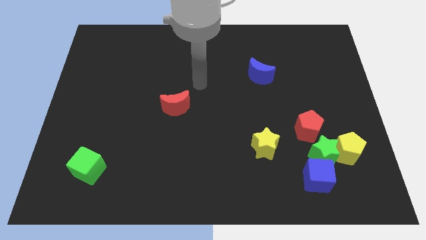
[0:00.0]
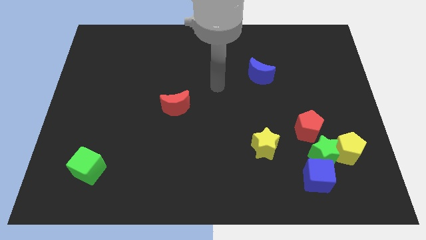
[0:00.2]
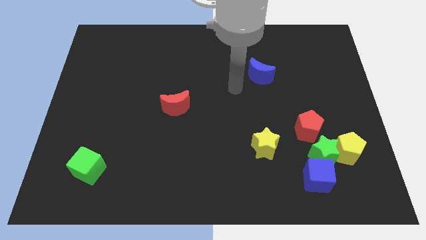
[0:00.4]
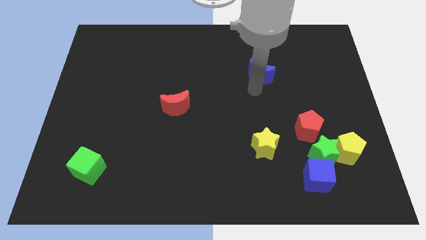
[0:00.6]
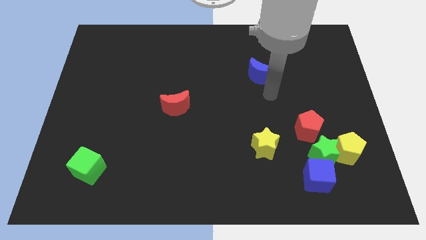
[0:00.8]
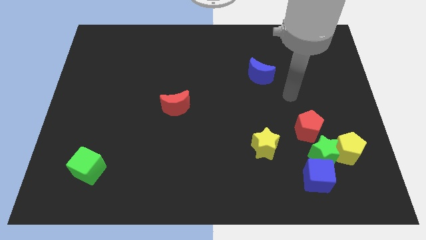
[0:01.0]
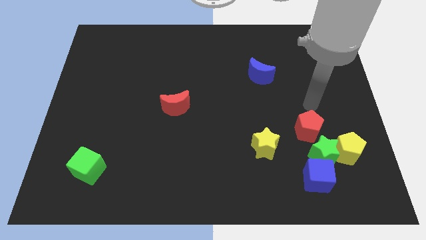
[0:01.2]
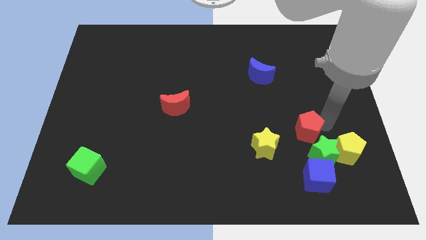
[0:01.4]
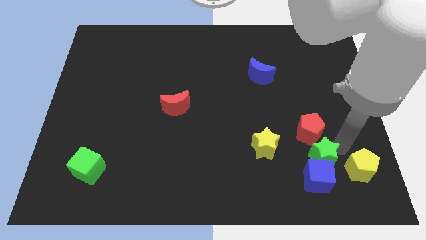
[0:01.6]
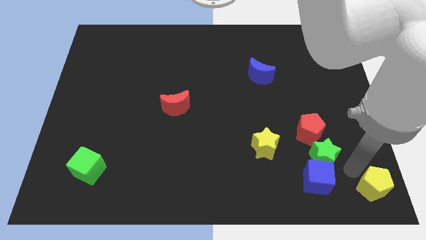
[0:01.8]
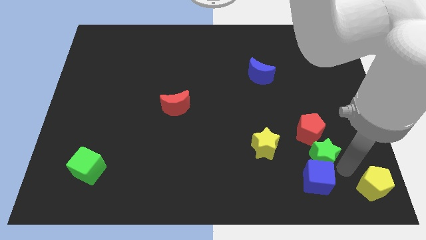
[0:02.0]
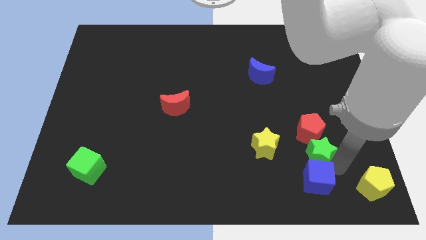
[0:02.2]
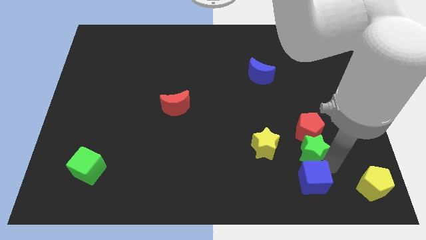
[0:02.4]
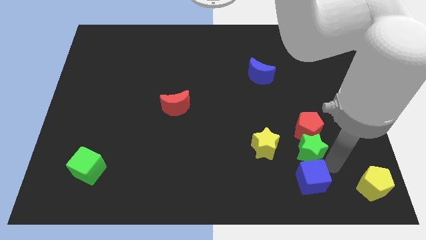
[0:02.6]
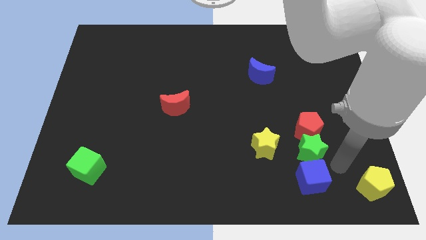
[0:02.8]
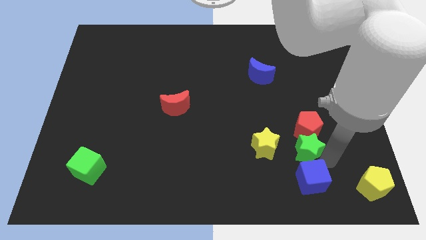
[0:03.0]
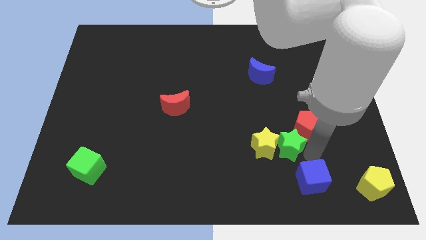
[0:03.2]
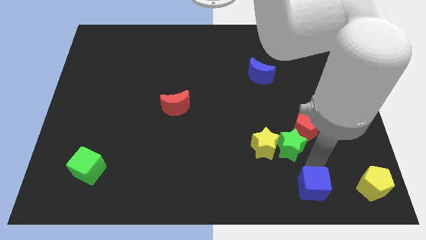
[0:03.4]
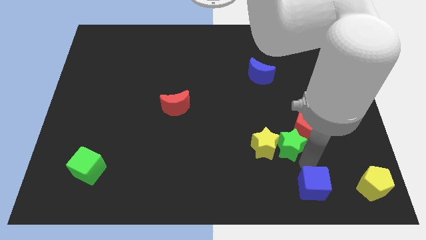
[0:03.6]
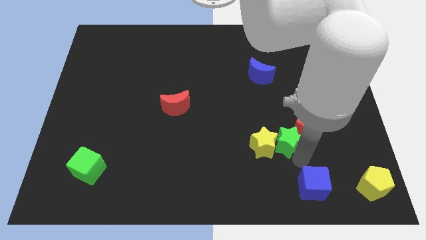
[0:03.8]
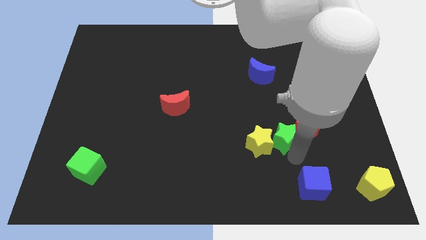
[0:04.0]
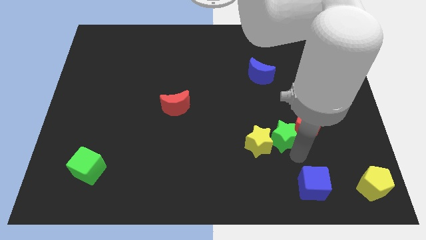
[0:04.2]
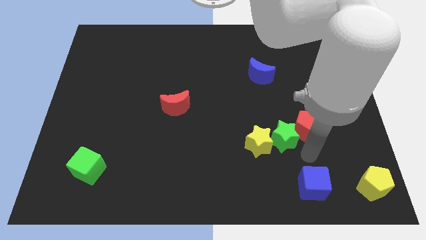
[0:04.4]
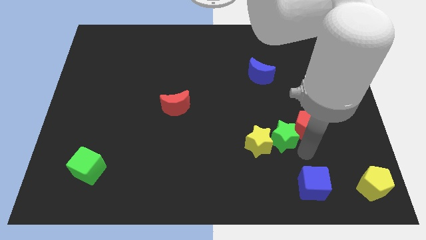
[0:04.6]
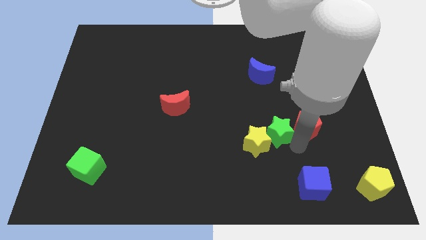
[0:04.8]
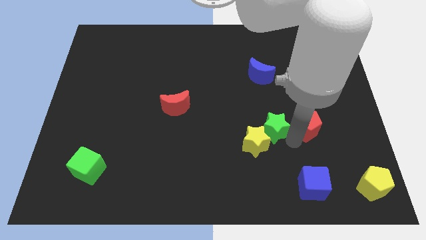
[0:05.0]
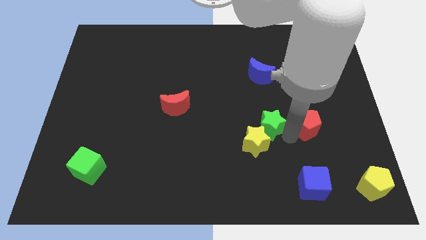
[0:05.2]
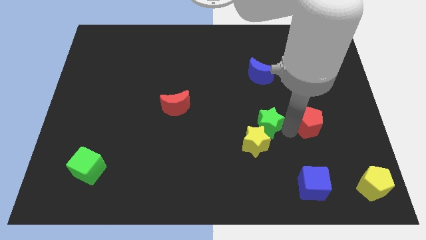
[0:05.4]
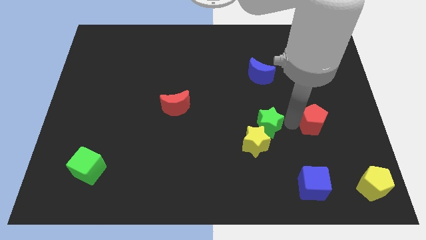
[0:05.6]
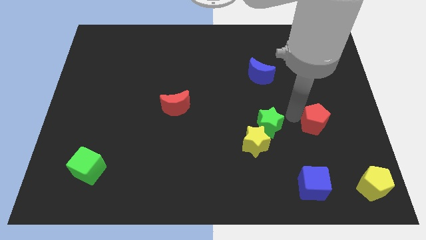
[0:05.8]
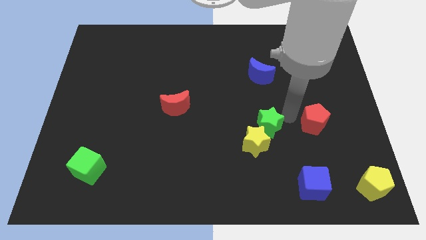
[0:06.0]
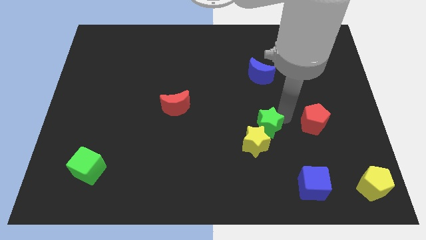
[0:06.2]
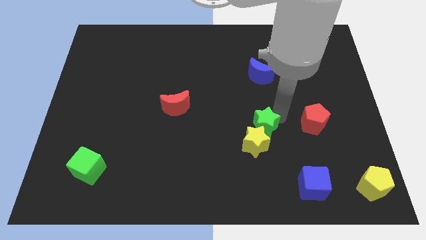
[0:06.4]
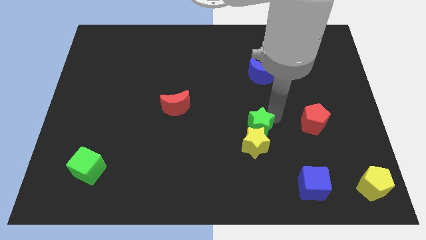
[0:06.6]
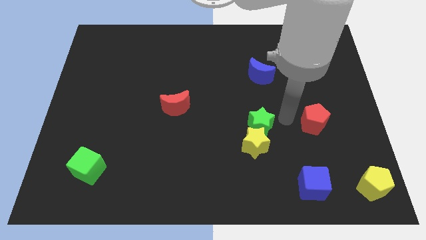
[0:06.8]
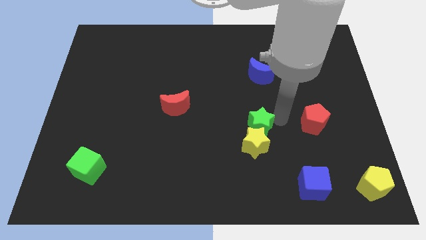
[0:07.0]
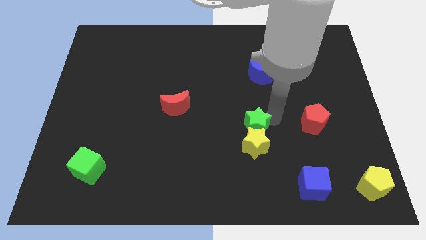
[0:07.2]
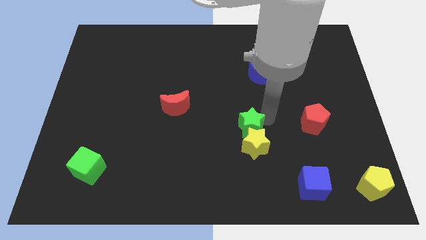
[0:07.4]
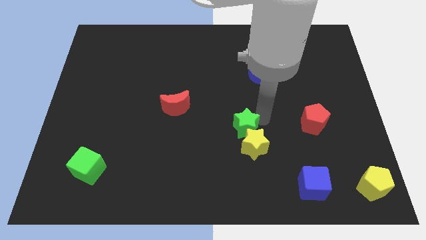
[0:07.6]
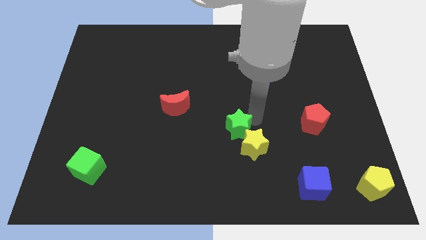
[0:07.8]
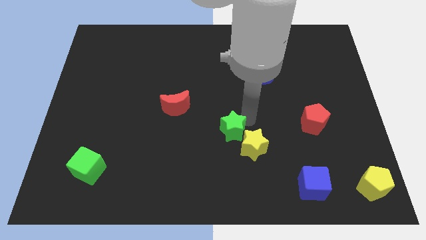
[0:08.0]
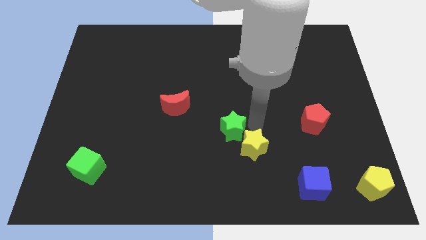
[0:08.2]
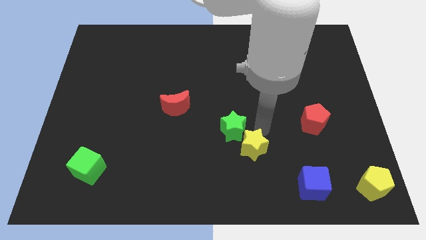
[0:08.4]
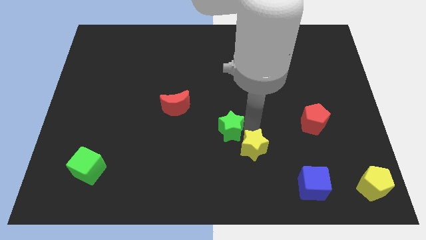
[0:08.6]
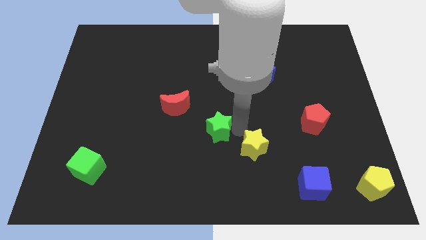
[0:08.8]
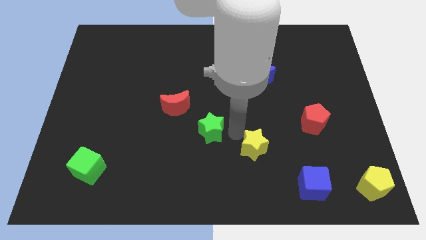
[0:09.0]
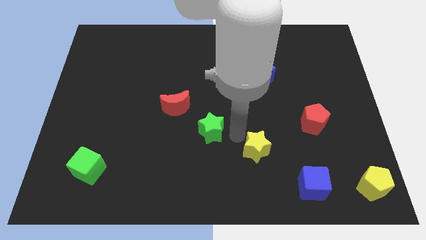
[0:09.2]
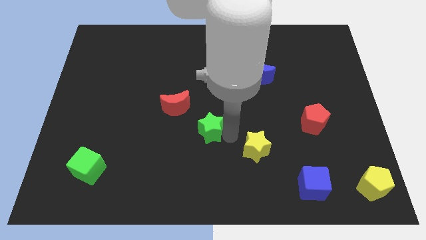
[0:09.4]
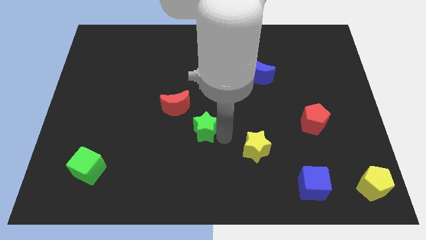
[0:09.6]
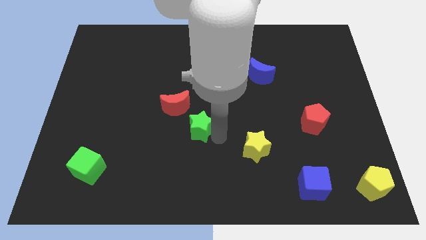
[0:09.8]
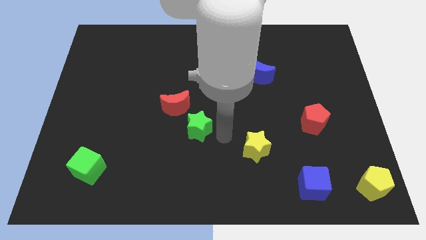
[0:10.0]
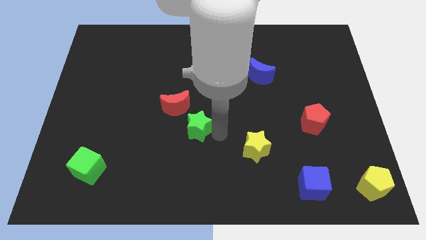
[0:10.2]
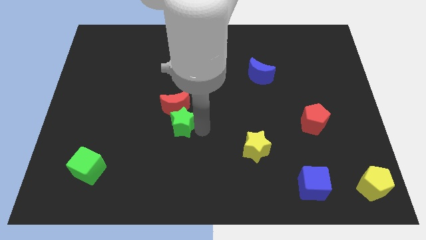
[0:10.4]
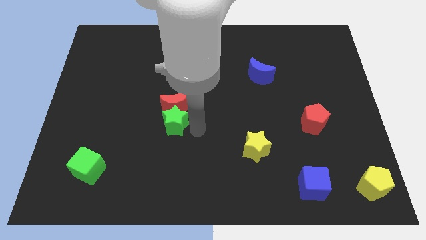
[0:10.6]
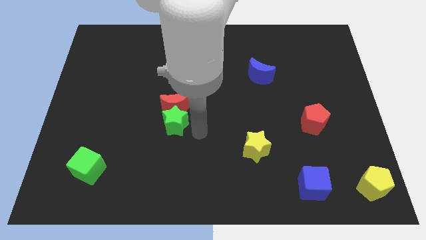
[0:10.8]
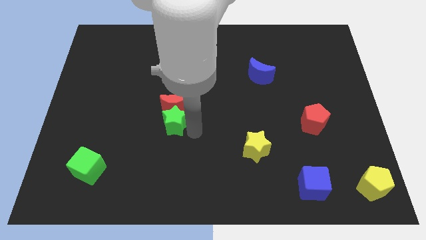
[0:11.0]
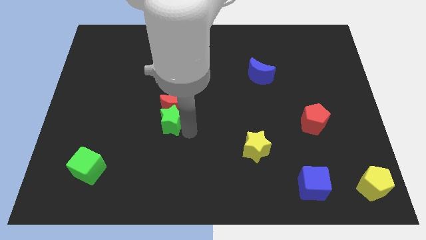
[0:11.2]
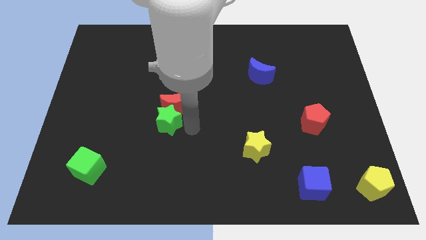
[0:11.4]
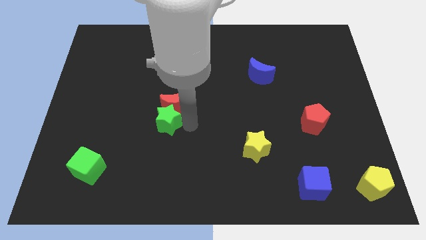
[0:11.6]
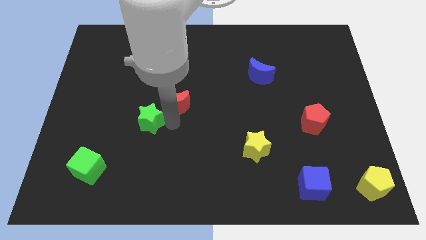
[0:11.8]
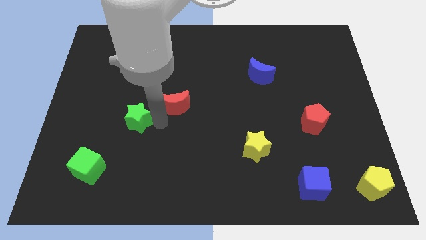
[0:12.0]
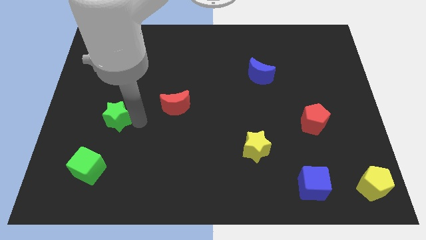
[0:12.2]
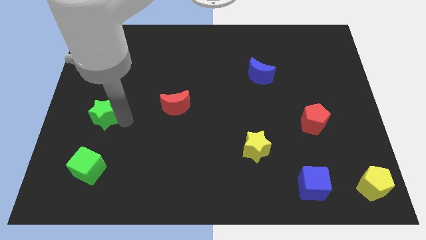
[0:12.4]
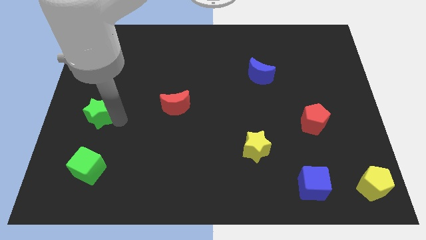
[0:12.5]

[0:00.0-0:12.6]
move the green star to the center left
